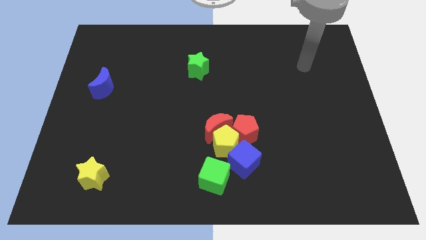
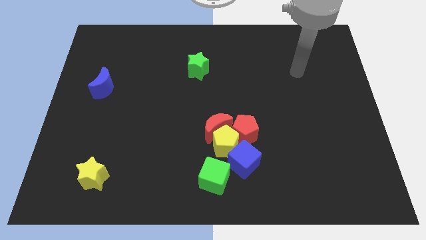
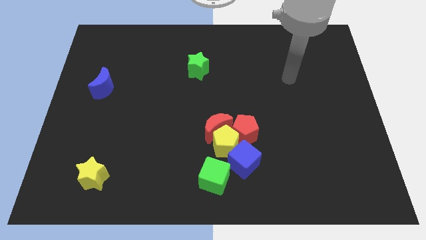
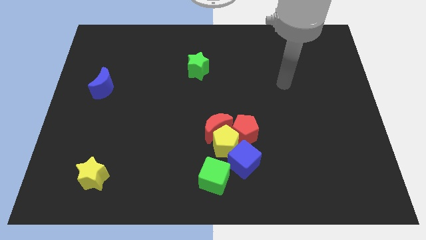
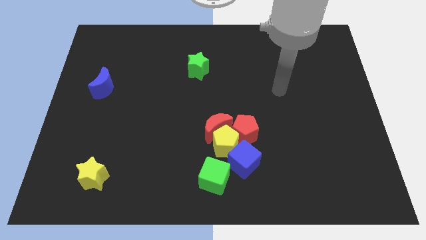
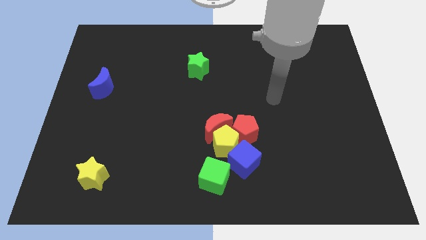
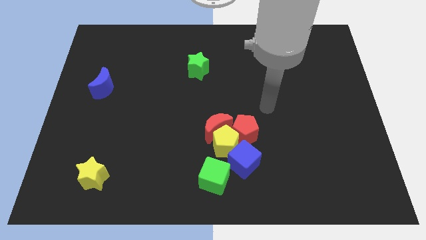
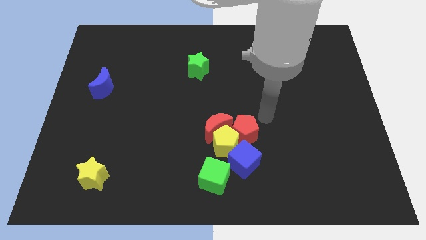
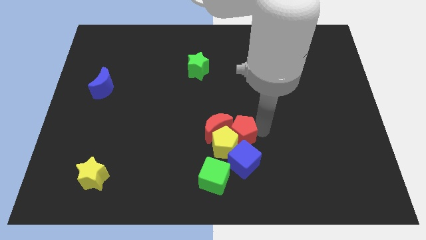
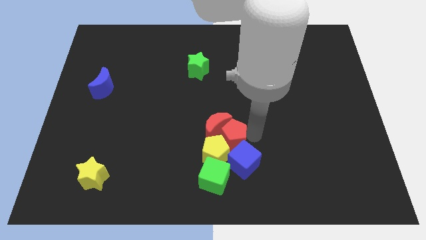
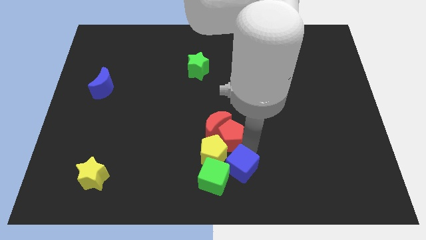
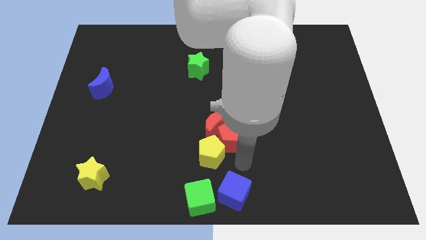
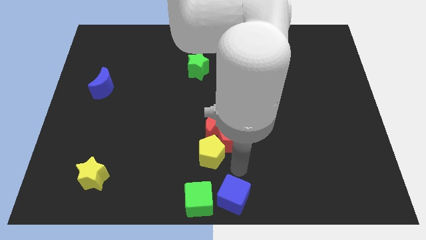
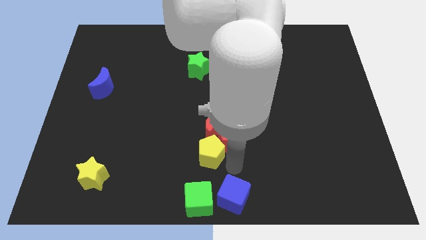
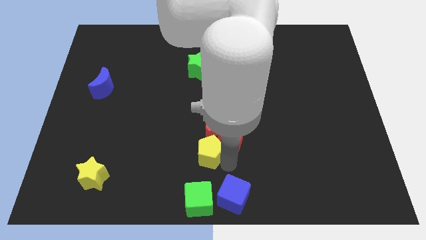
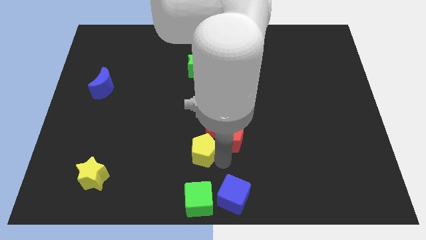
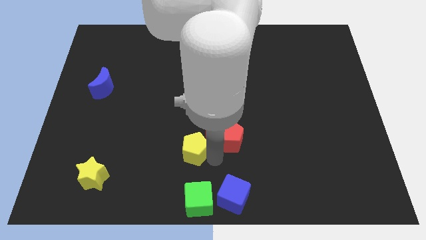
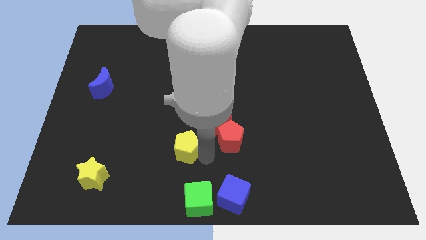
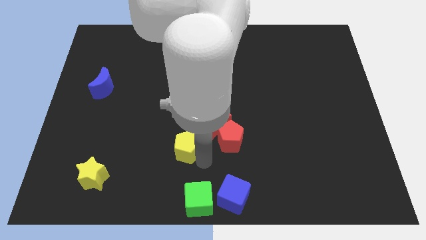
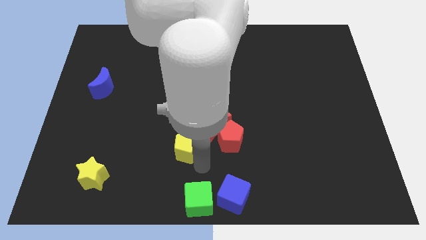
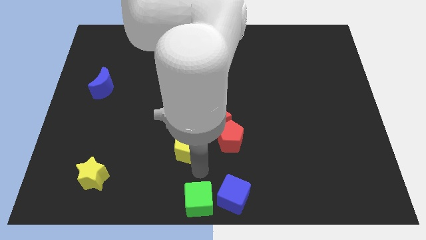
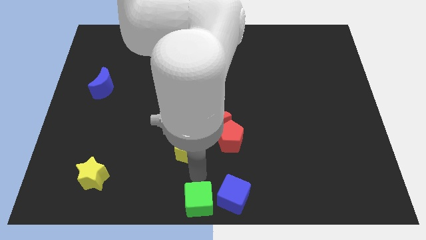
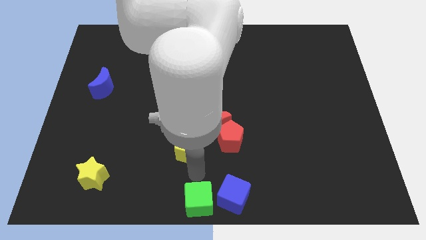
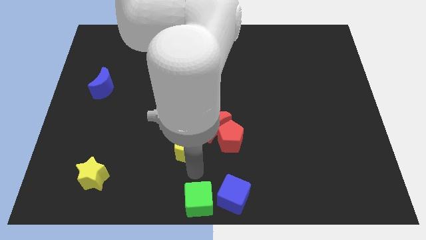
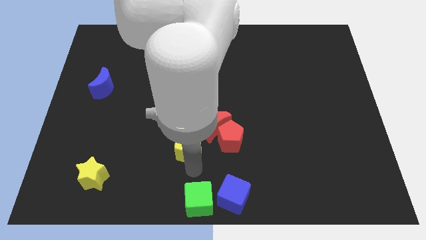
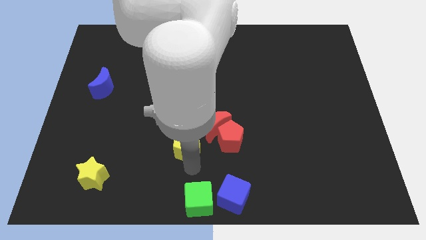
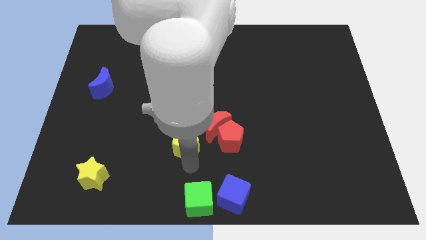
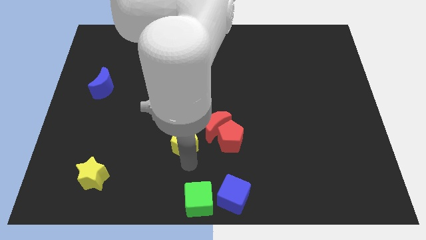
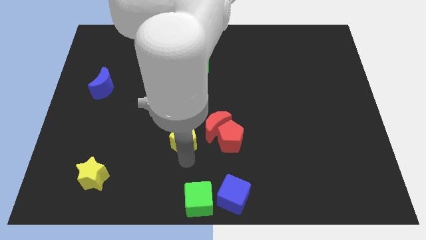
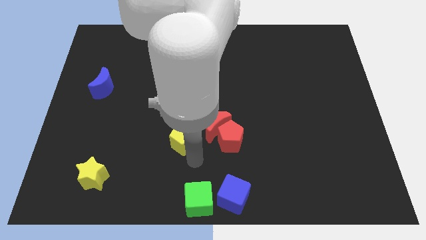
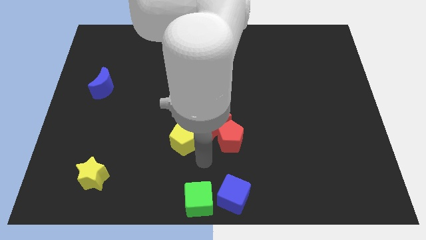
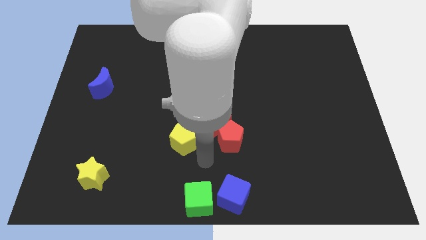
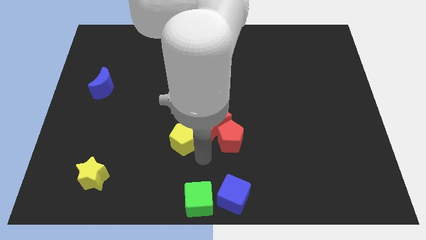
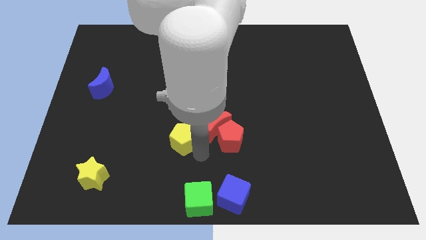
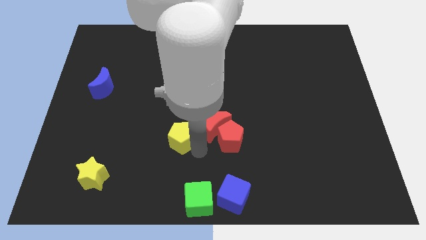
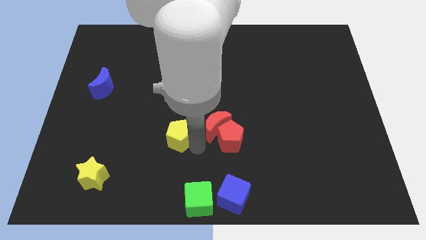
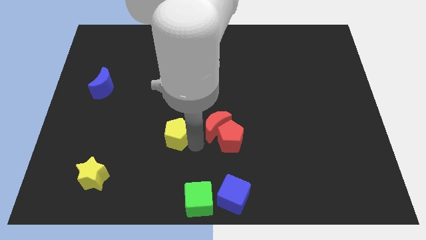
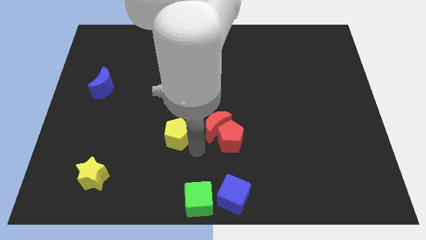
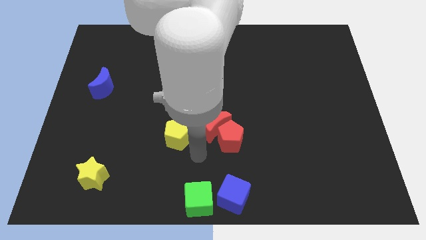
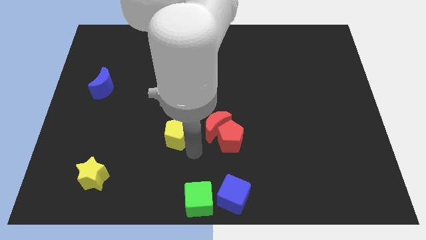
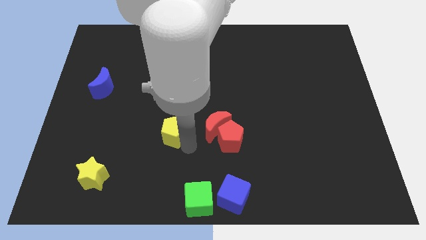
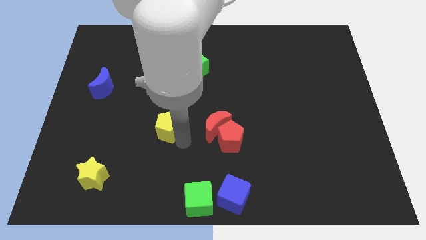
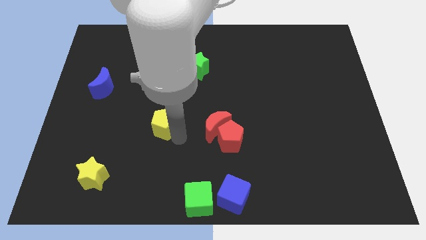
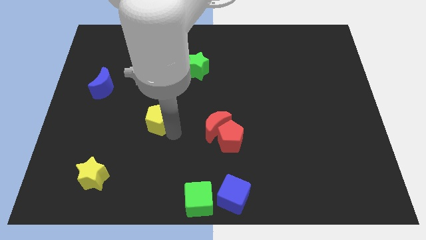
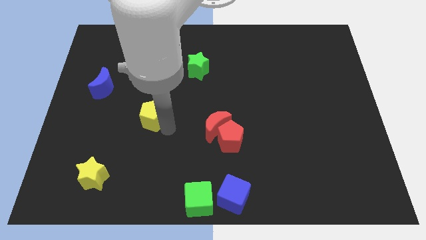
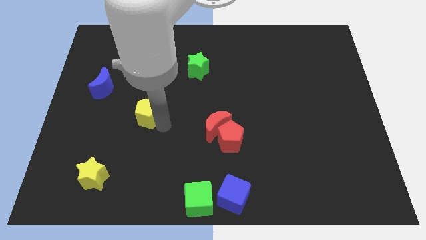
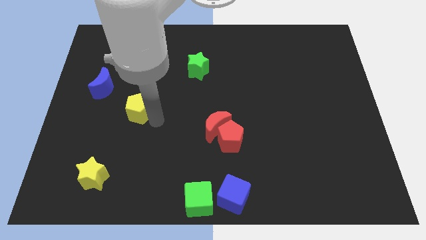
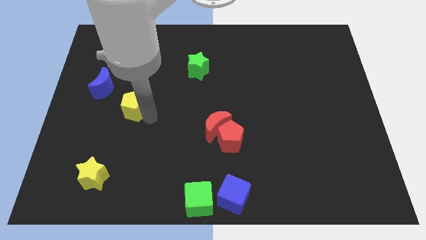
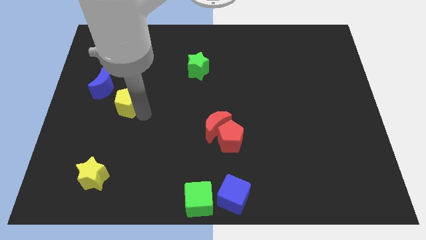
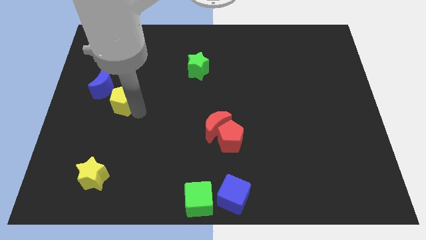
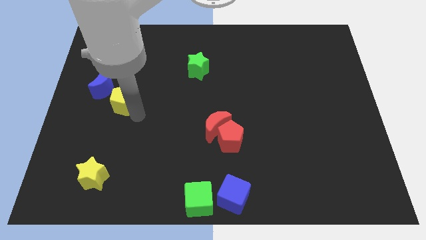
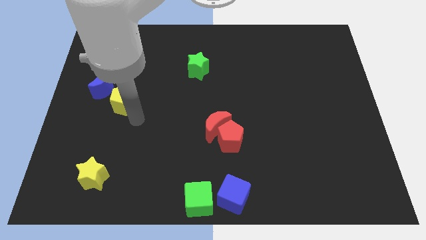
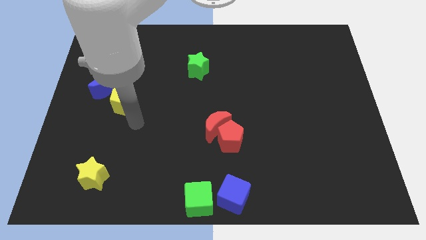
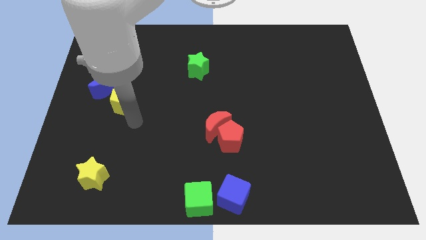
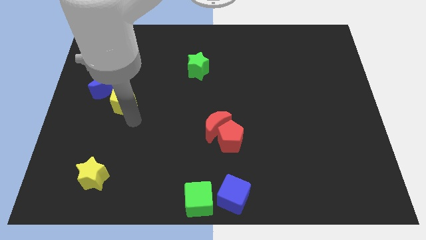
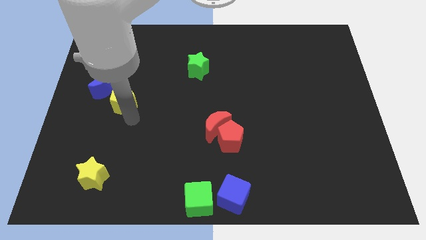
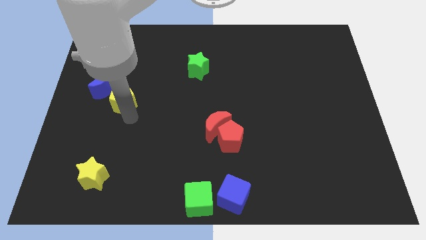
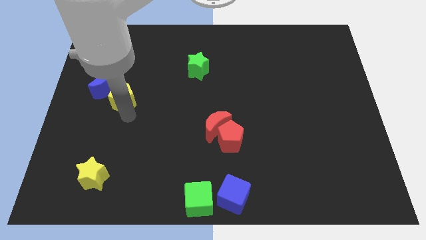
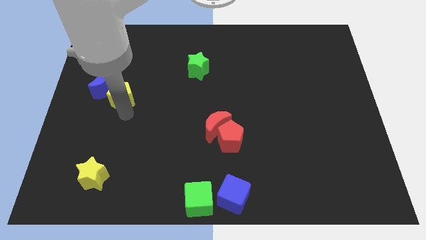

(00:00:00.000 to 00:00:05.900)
push the yellow pentagon to the blue moon

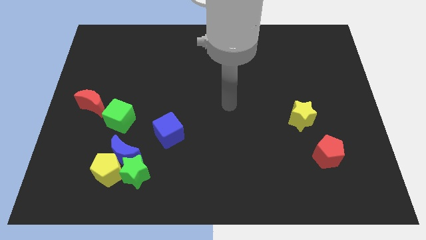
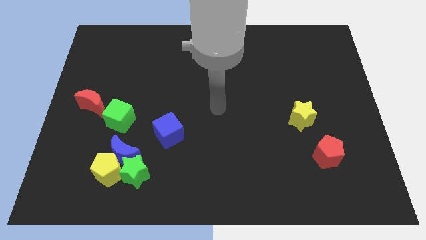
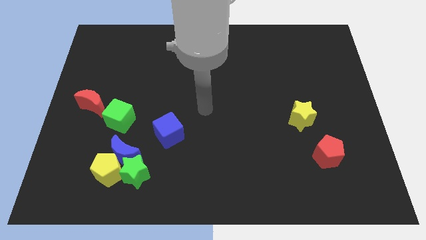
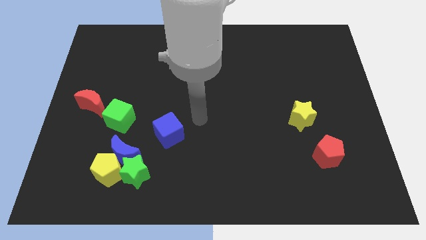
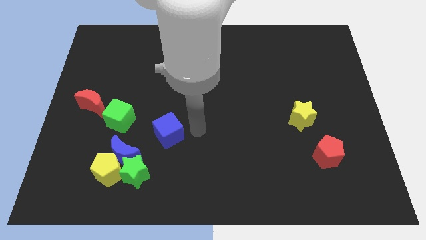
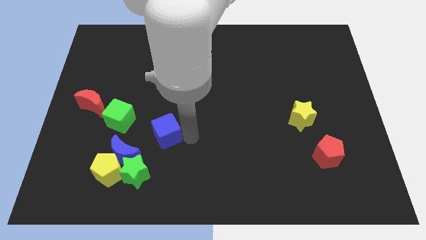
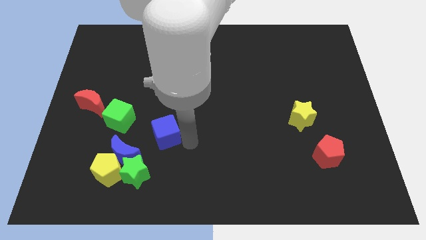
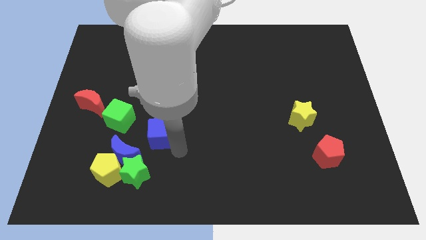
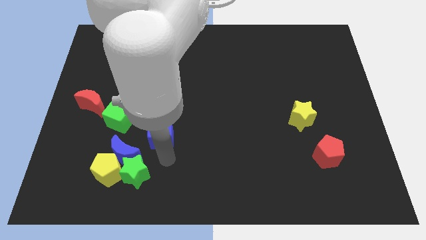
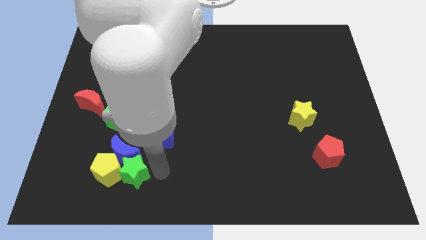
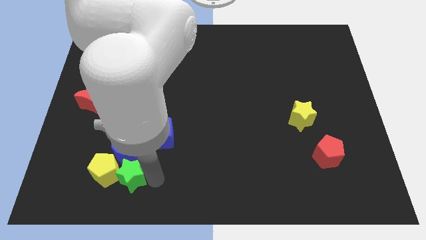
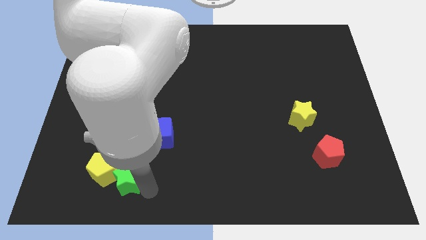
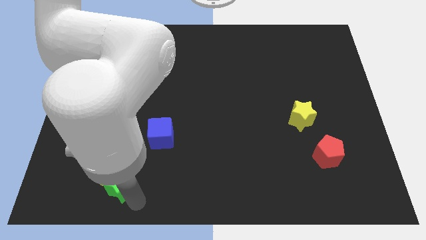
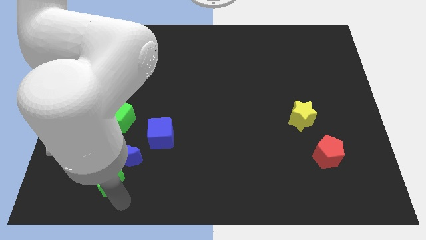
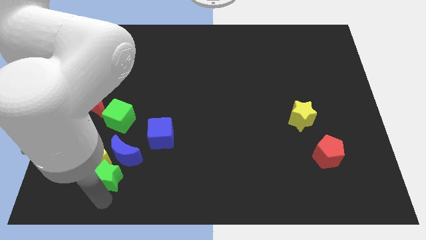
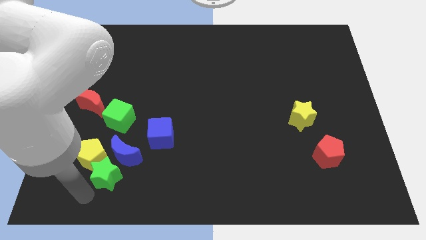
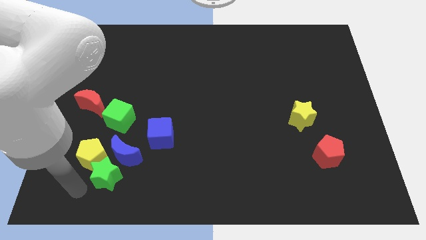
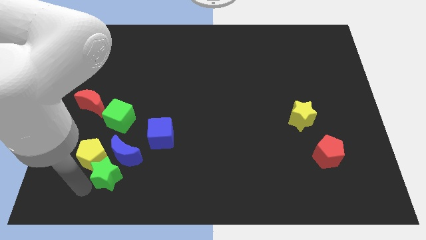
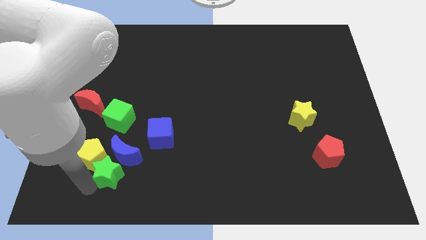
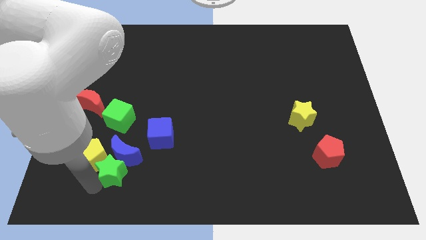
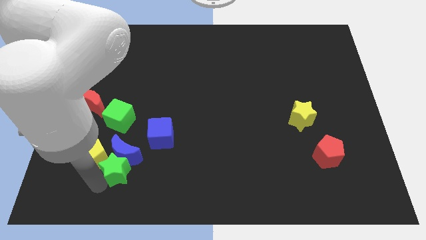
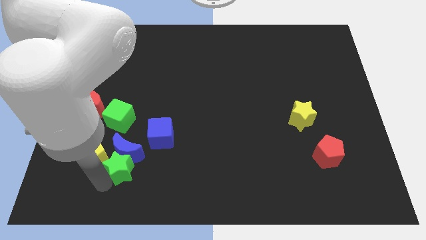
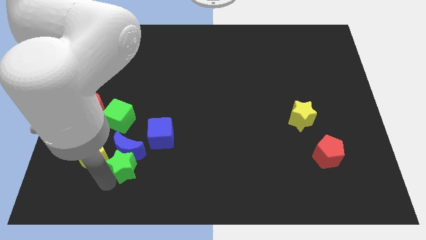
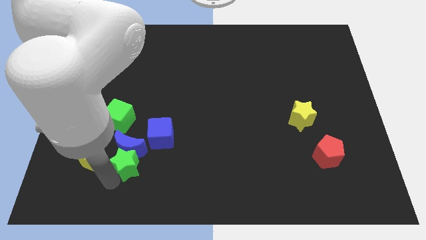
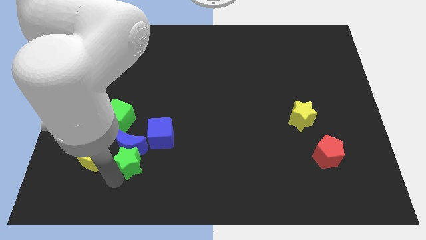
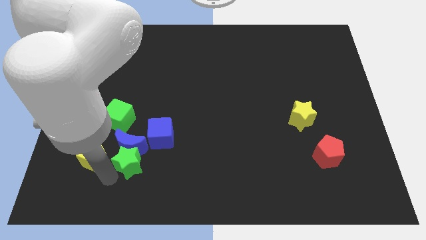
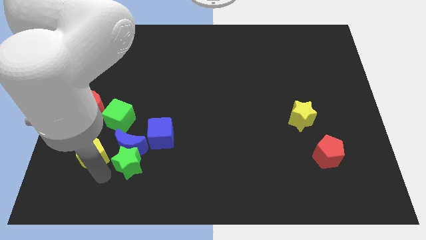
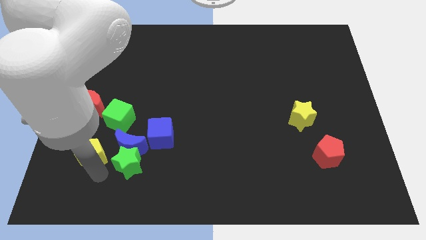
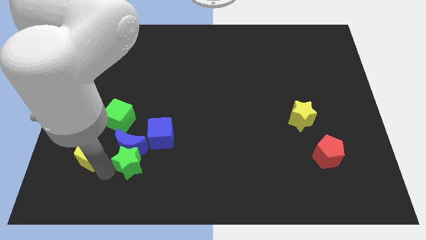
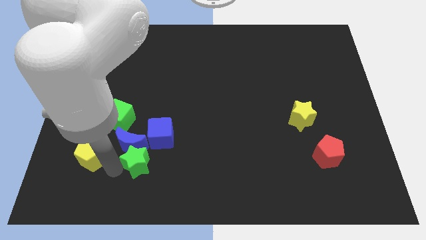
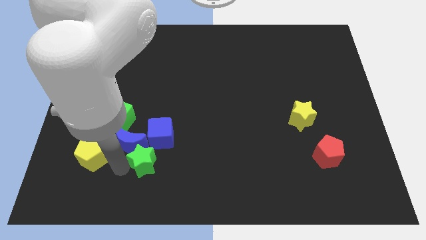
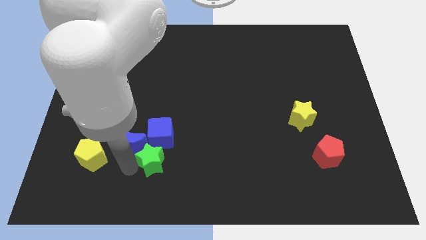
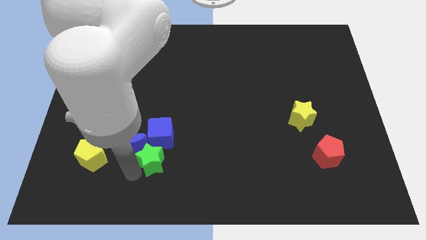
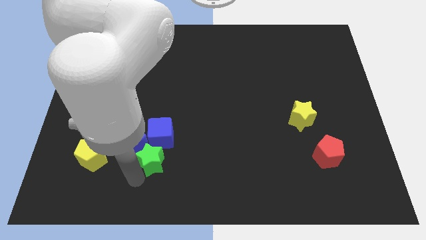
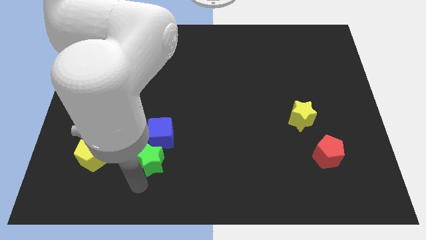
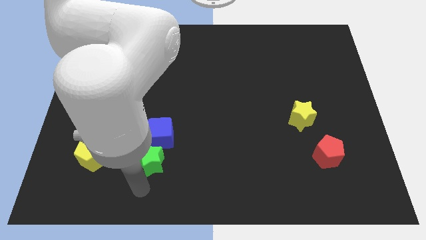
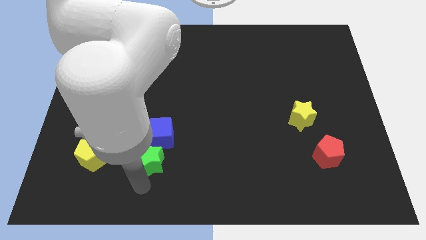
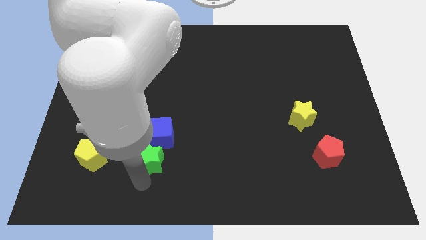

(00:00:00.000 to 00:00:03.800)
slide the green star next to the blue cube
